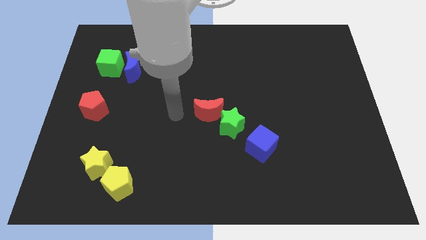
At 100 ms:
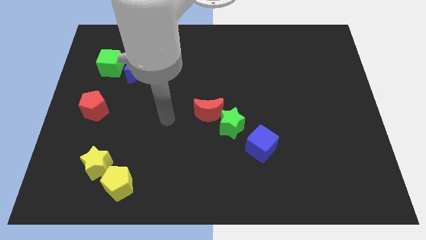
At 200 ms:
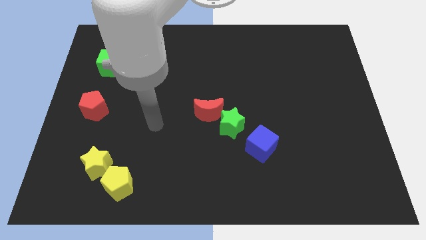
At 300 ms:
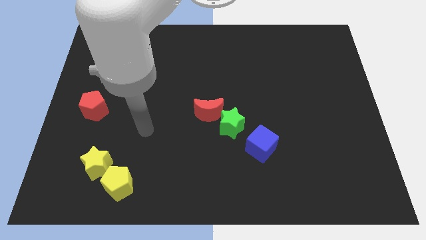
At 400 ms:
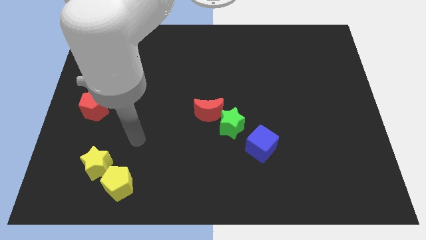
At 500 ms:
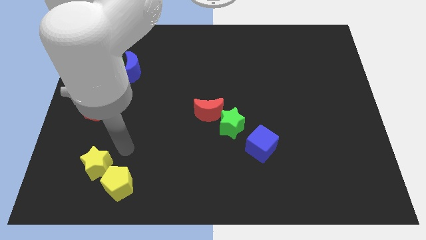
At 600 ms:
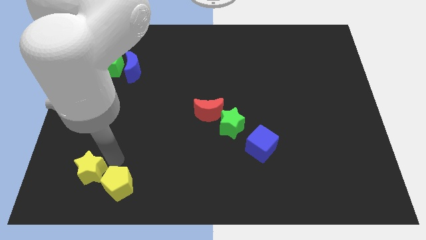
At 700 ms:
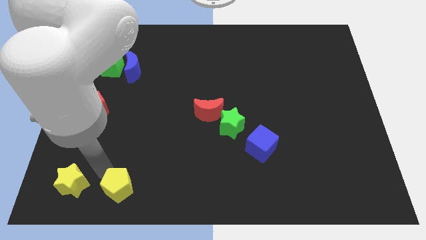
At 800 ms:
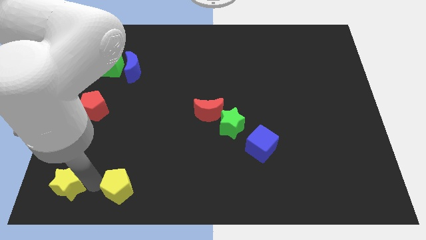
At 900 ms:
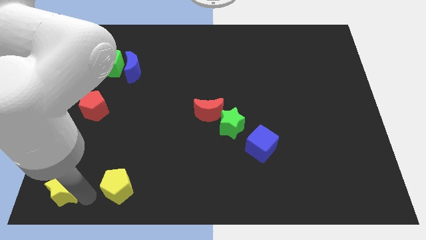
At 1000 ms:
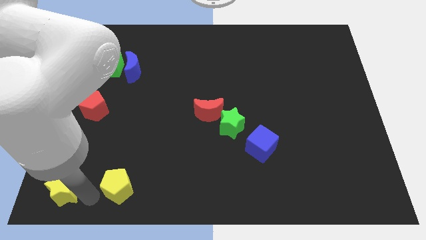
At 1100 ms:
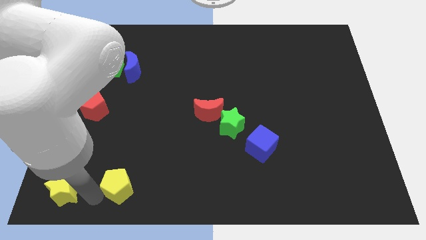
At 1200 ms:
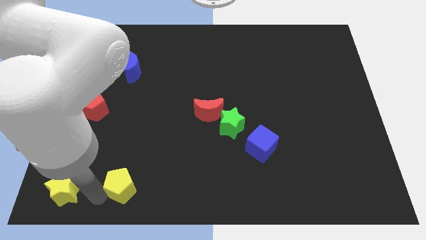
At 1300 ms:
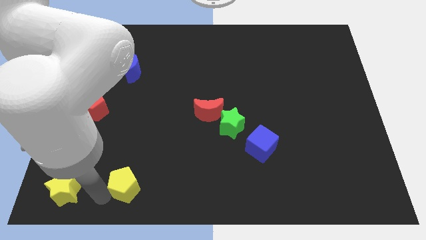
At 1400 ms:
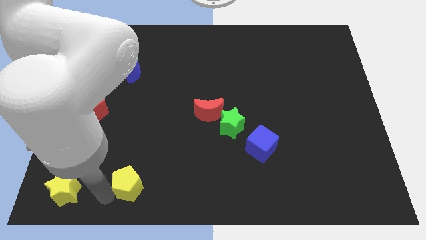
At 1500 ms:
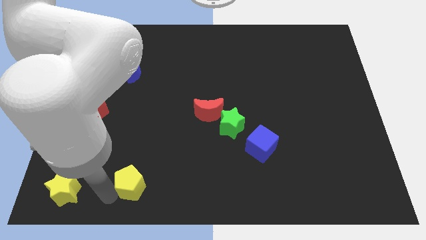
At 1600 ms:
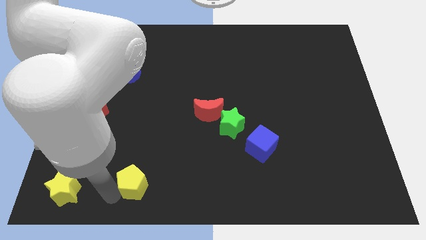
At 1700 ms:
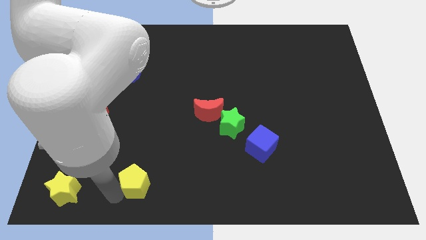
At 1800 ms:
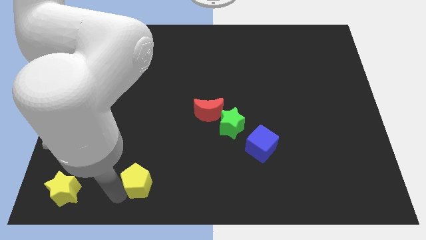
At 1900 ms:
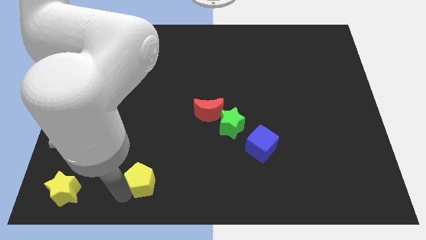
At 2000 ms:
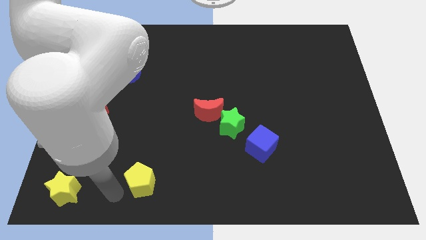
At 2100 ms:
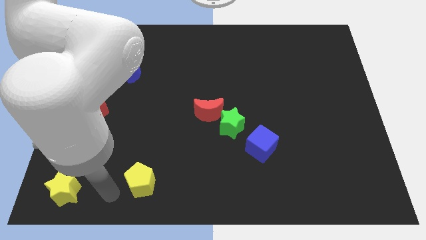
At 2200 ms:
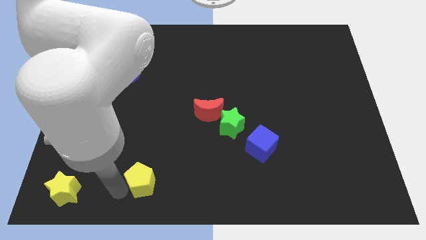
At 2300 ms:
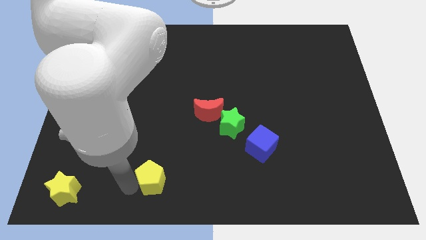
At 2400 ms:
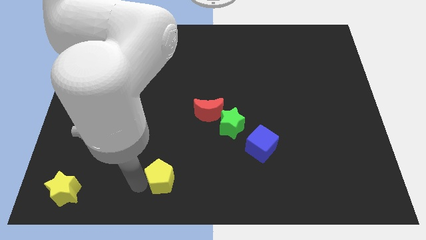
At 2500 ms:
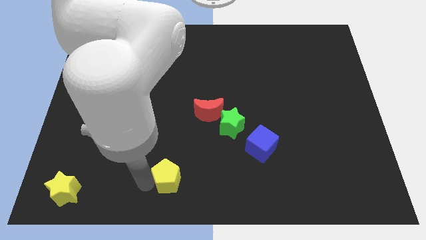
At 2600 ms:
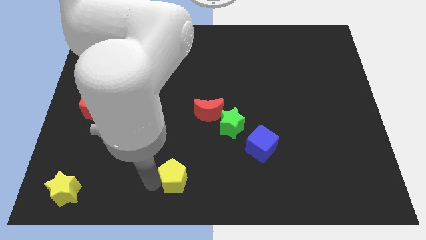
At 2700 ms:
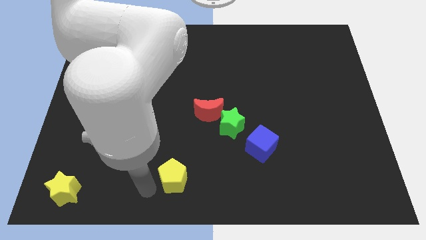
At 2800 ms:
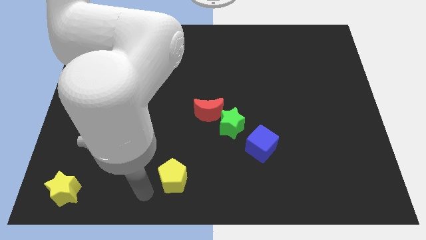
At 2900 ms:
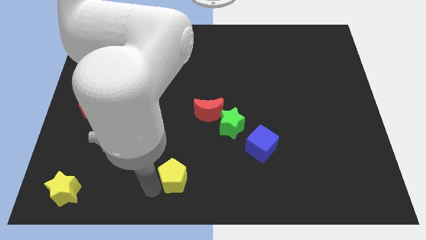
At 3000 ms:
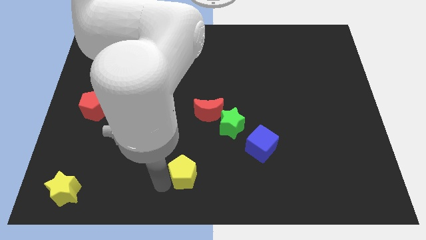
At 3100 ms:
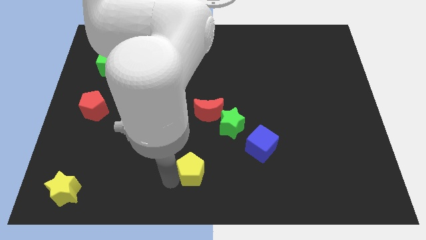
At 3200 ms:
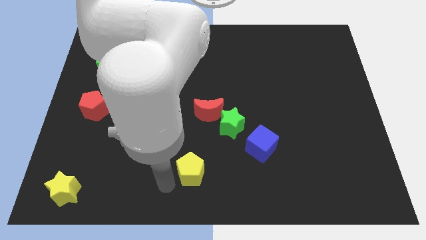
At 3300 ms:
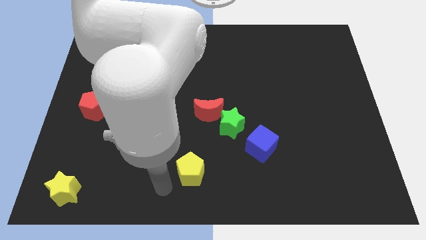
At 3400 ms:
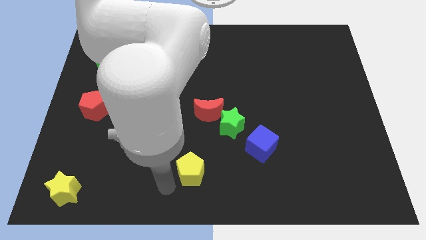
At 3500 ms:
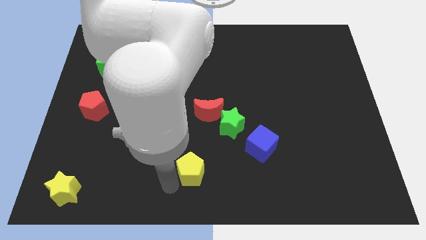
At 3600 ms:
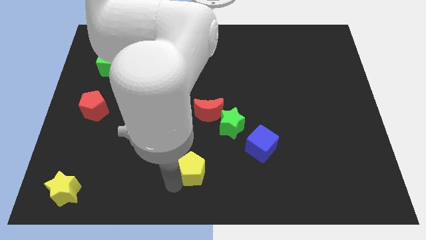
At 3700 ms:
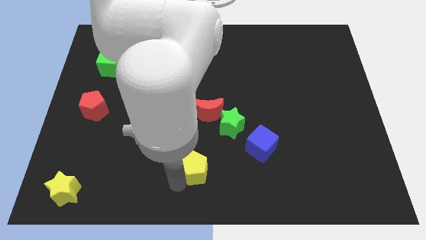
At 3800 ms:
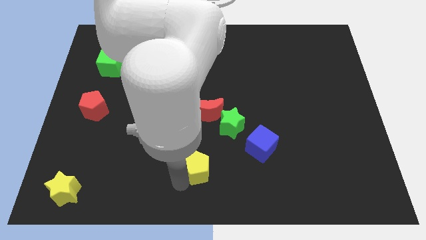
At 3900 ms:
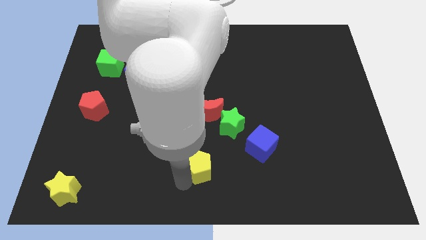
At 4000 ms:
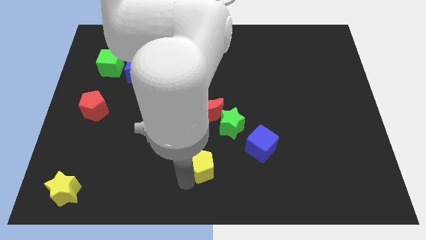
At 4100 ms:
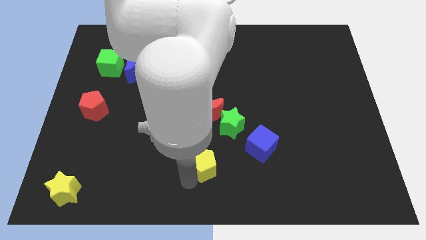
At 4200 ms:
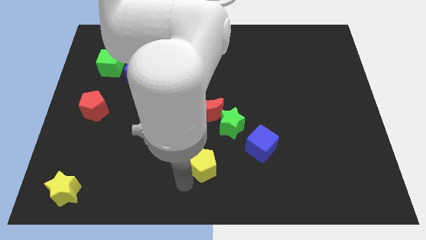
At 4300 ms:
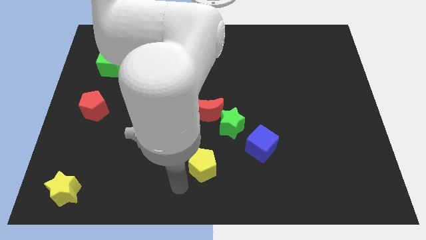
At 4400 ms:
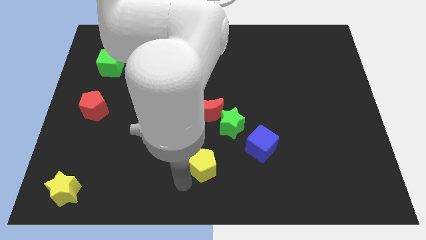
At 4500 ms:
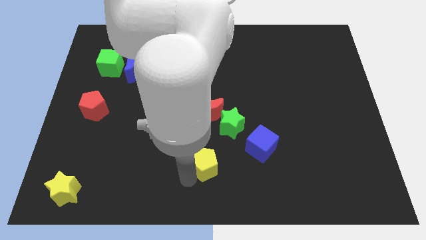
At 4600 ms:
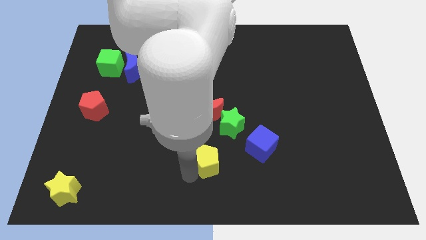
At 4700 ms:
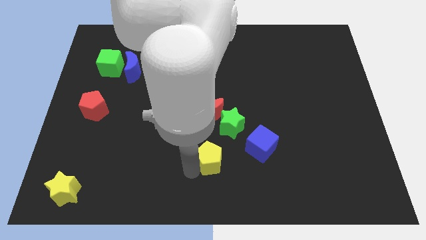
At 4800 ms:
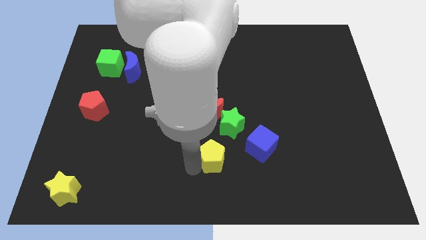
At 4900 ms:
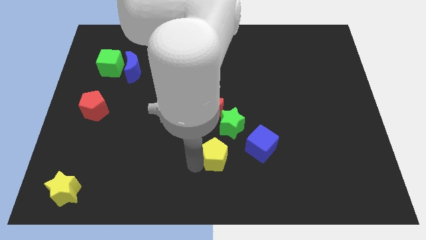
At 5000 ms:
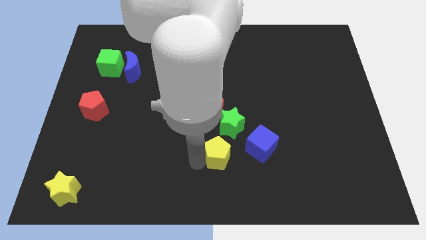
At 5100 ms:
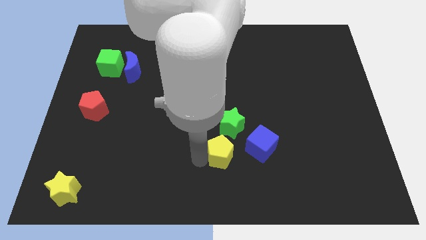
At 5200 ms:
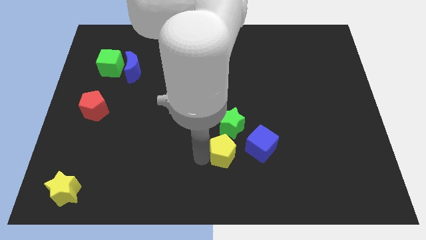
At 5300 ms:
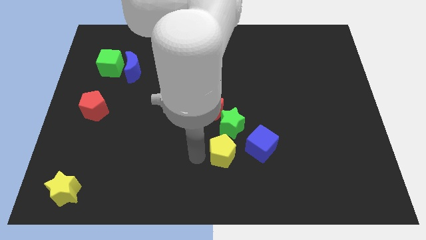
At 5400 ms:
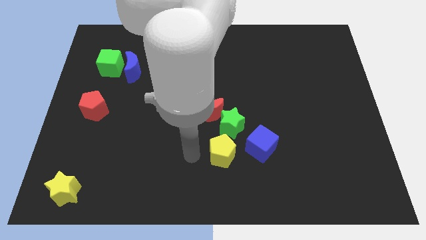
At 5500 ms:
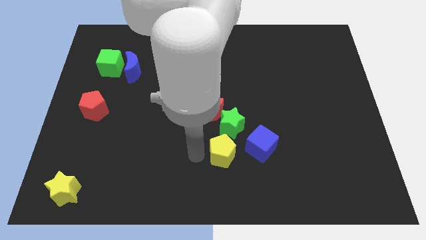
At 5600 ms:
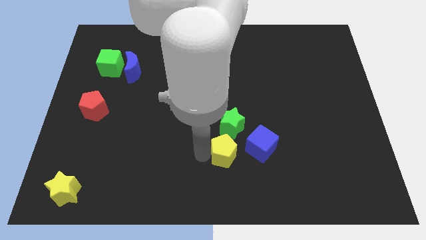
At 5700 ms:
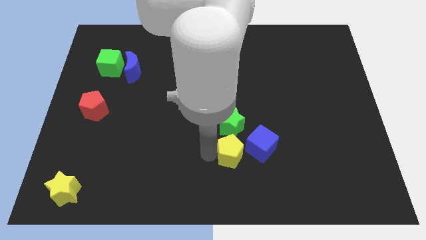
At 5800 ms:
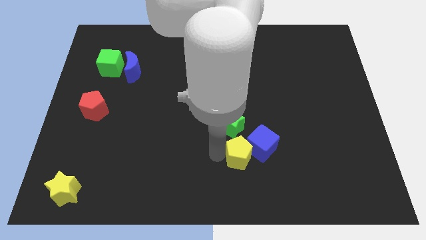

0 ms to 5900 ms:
push the yellow pentagon next to the blue cube

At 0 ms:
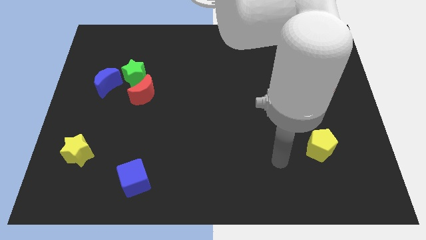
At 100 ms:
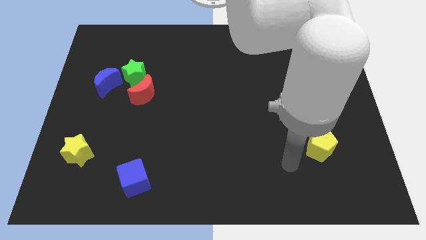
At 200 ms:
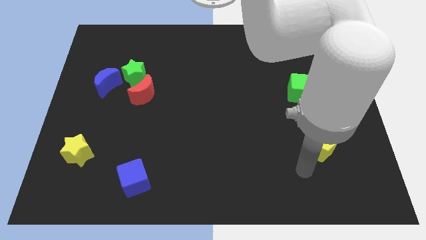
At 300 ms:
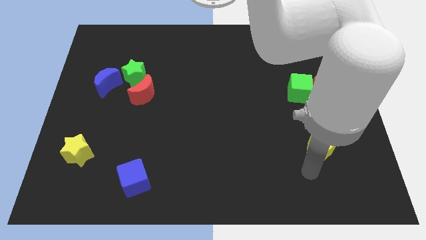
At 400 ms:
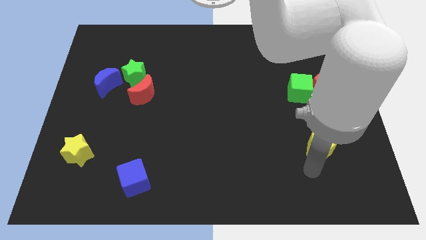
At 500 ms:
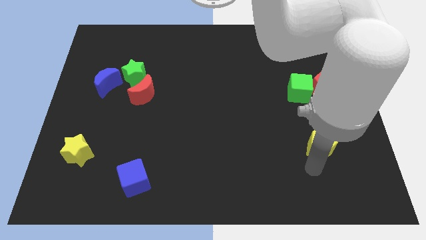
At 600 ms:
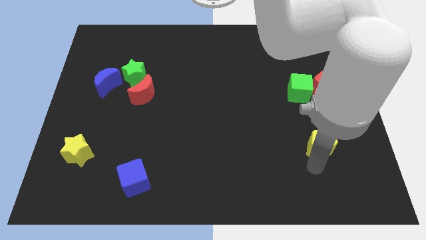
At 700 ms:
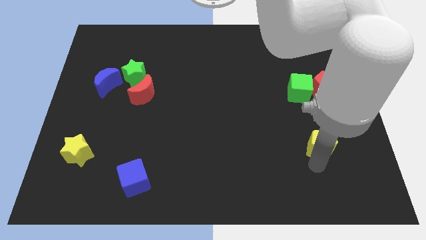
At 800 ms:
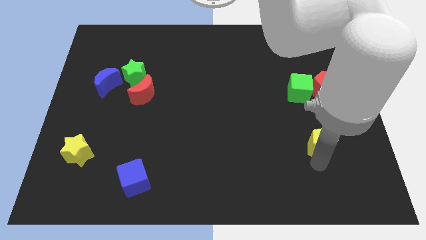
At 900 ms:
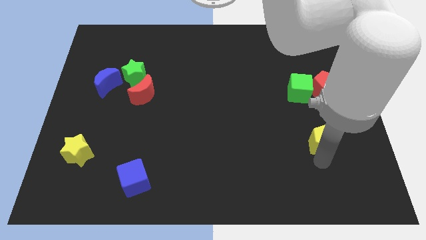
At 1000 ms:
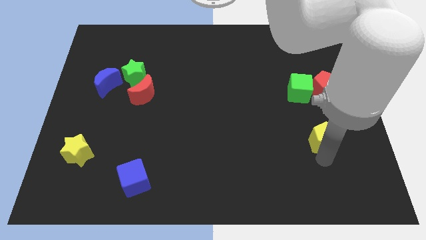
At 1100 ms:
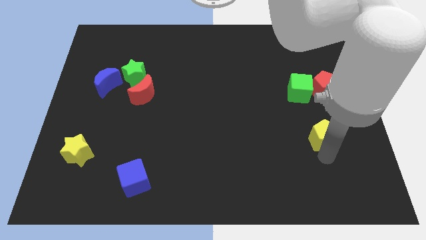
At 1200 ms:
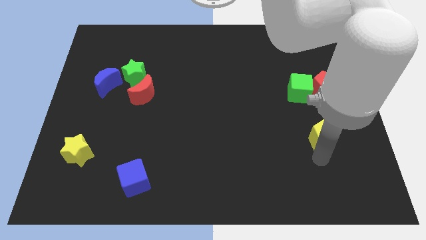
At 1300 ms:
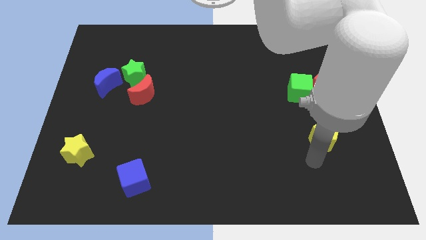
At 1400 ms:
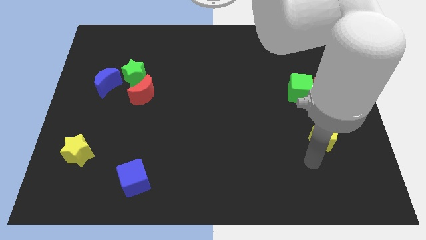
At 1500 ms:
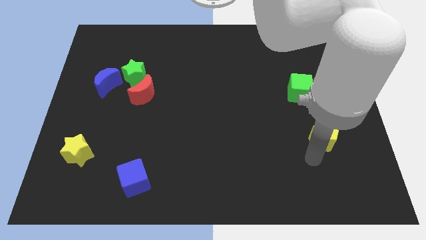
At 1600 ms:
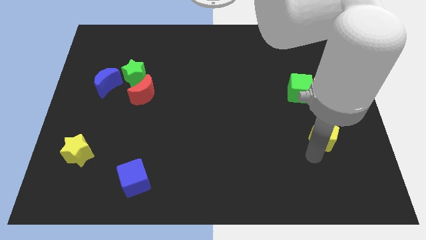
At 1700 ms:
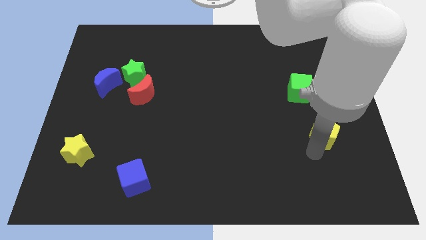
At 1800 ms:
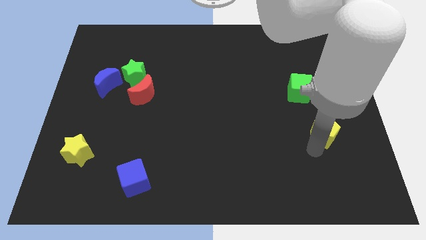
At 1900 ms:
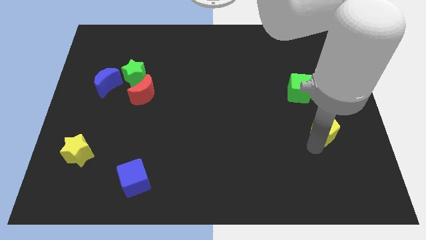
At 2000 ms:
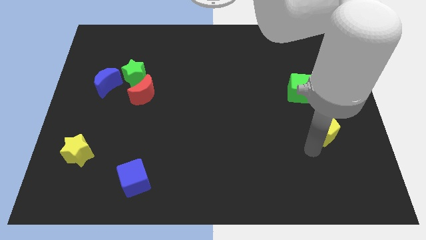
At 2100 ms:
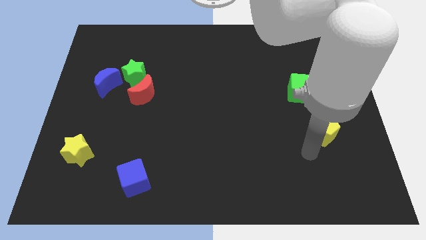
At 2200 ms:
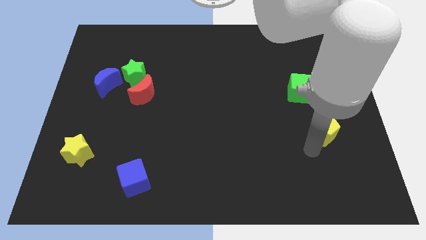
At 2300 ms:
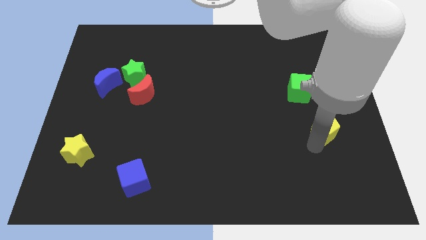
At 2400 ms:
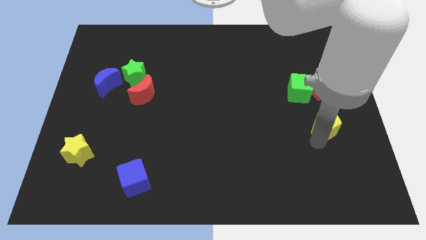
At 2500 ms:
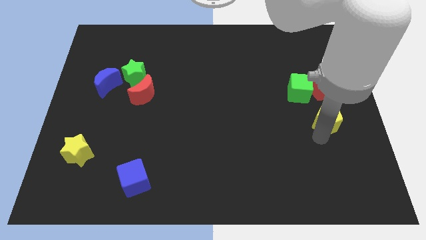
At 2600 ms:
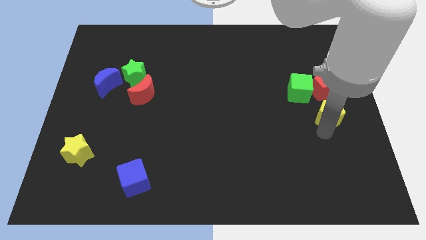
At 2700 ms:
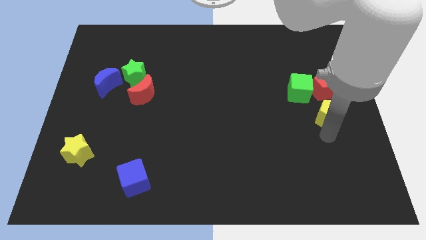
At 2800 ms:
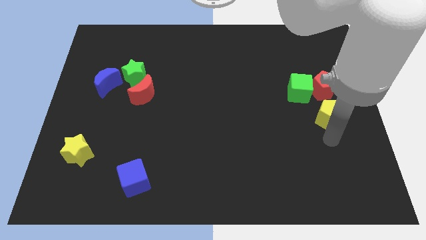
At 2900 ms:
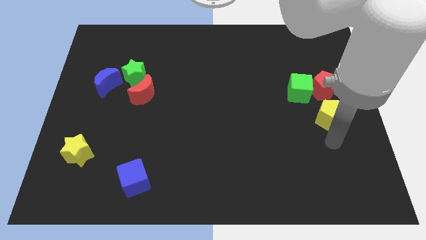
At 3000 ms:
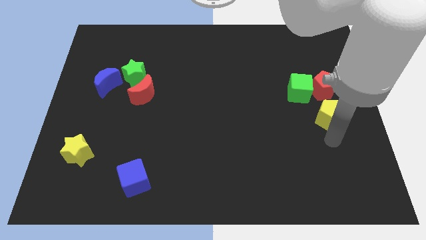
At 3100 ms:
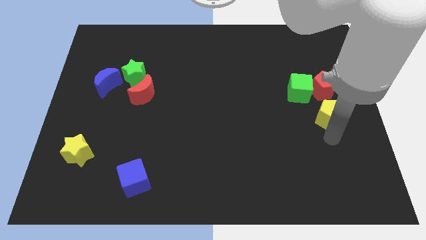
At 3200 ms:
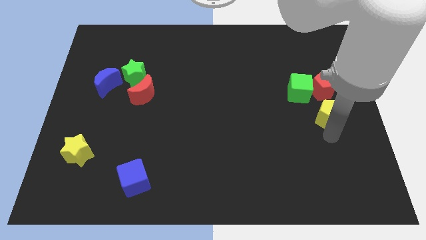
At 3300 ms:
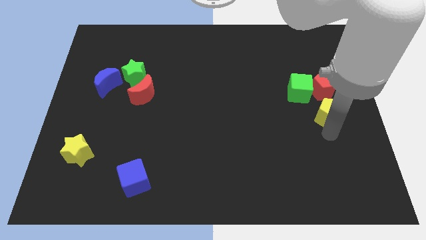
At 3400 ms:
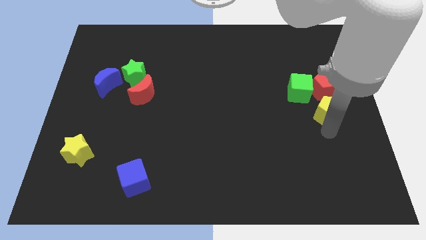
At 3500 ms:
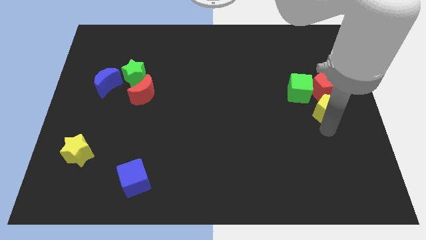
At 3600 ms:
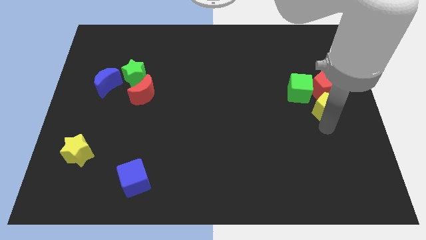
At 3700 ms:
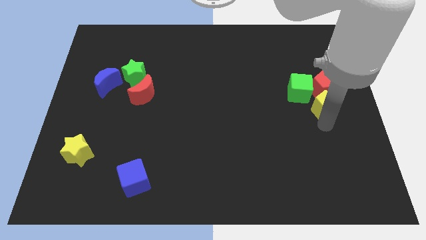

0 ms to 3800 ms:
put the yellow pentagon towards the red pentagon
